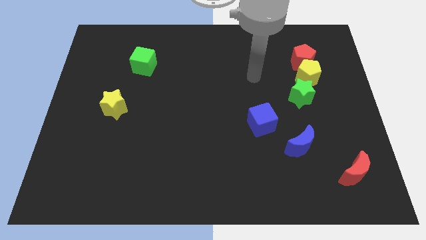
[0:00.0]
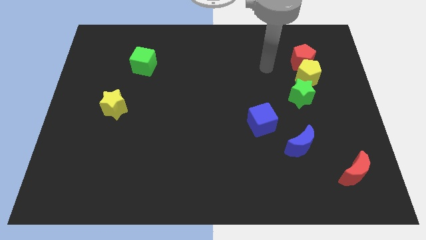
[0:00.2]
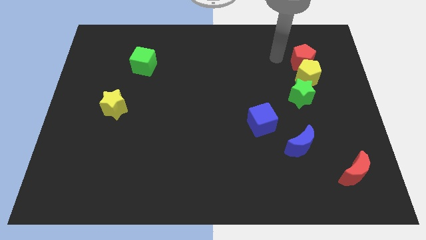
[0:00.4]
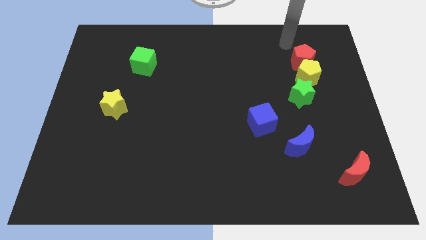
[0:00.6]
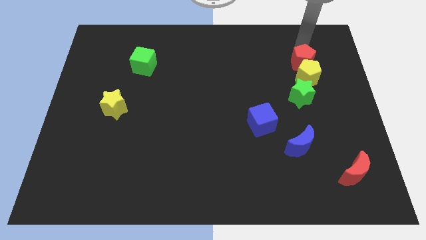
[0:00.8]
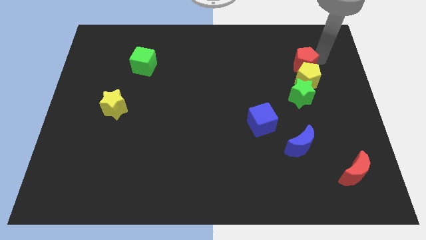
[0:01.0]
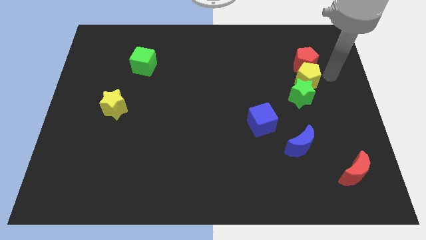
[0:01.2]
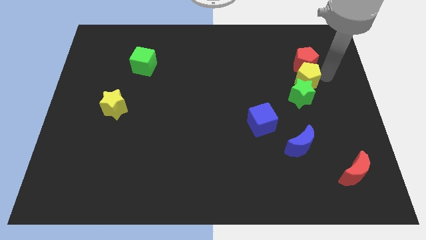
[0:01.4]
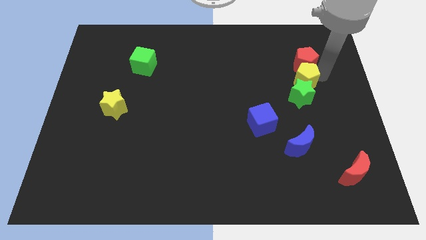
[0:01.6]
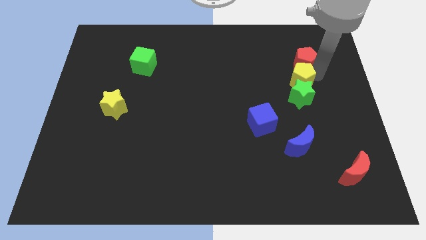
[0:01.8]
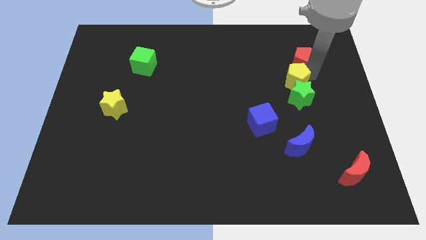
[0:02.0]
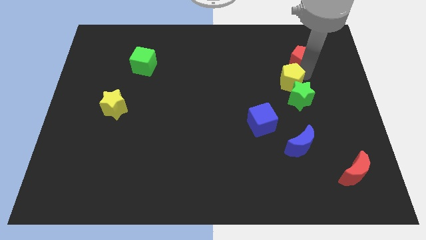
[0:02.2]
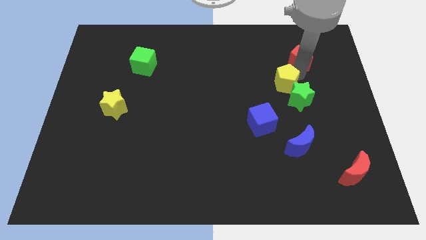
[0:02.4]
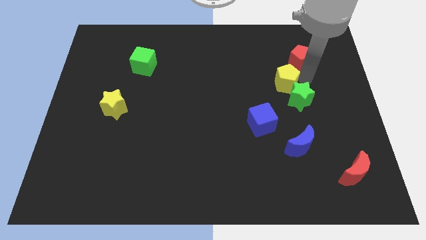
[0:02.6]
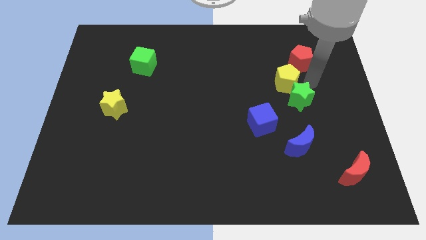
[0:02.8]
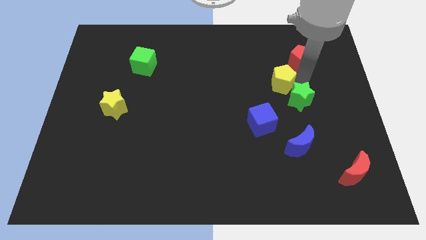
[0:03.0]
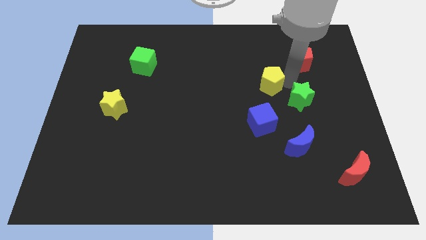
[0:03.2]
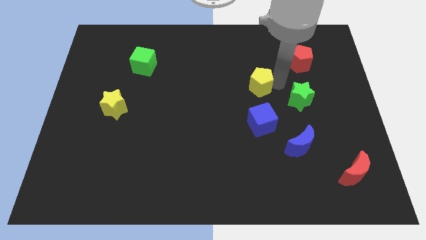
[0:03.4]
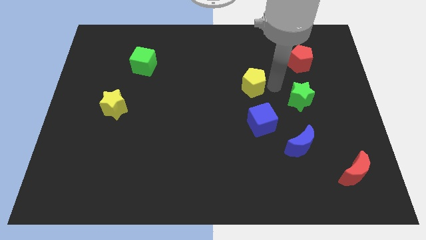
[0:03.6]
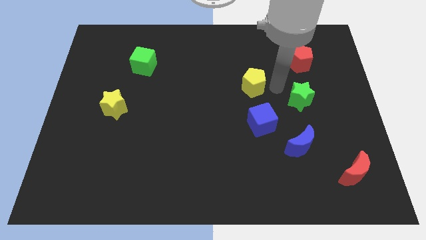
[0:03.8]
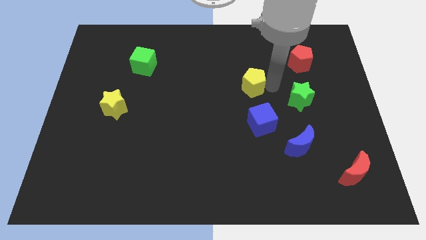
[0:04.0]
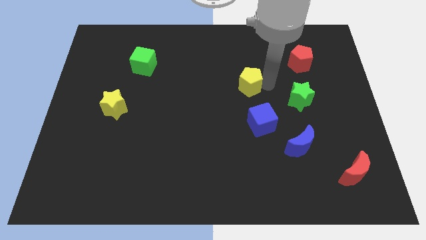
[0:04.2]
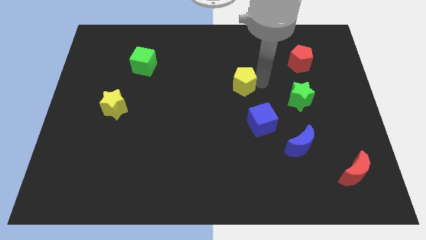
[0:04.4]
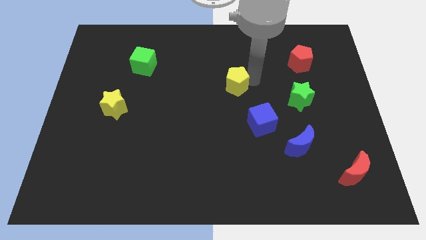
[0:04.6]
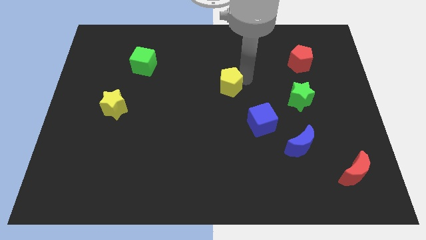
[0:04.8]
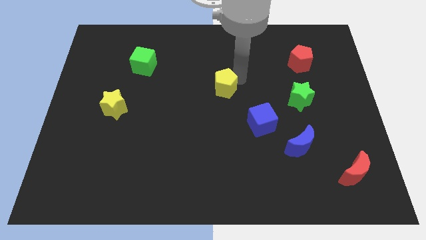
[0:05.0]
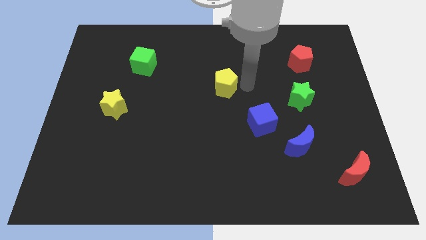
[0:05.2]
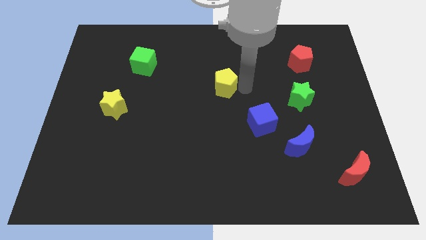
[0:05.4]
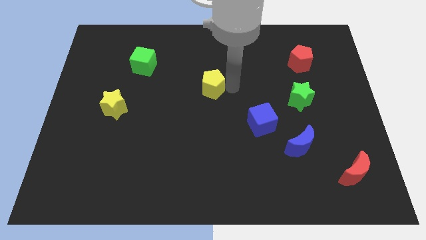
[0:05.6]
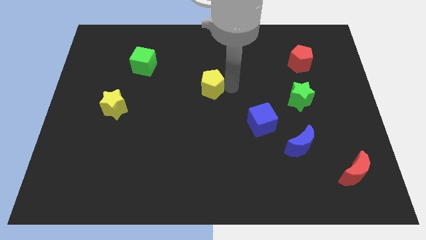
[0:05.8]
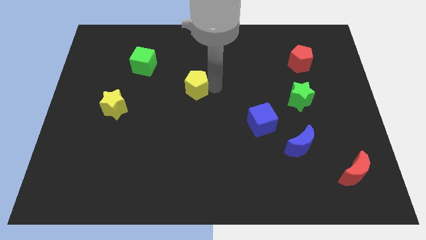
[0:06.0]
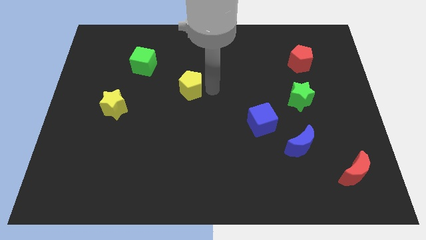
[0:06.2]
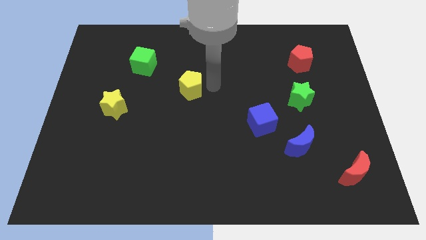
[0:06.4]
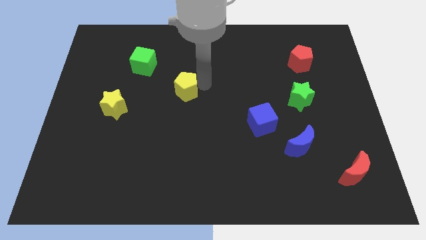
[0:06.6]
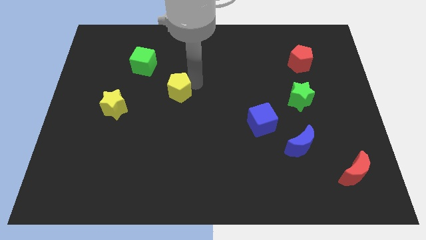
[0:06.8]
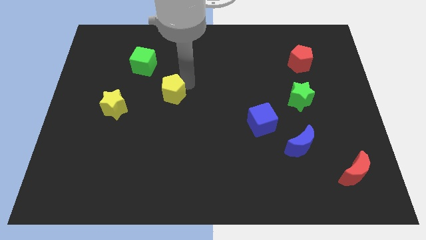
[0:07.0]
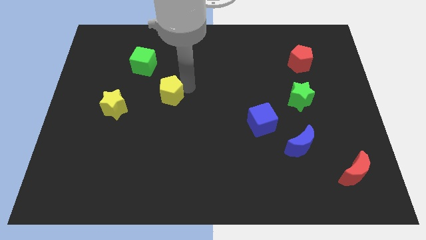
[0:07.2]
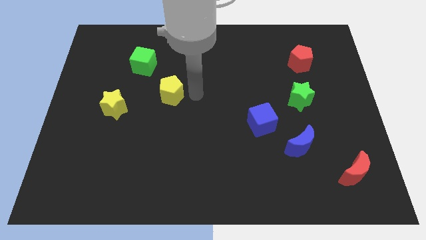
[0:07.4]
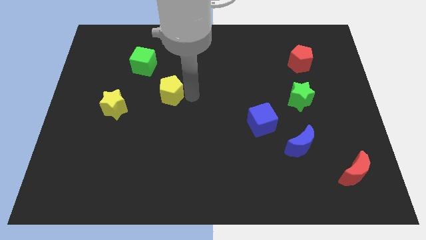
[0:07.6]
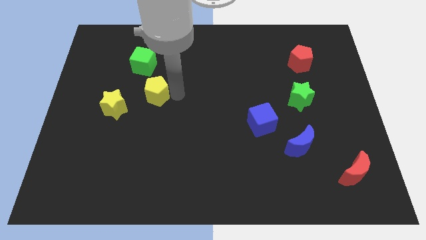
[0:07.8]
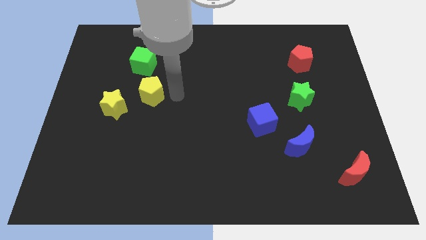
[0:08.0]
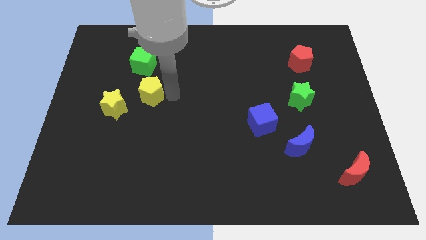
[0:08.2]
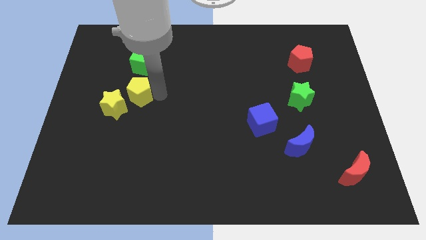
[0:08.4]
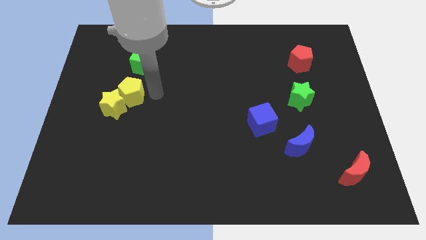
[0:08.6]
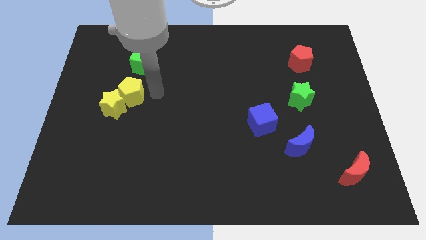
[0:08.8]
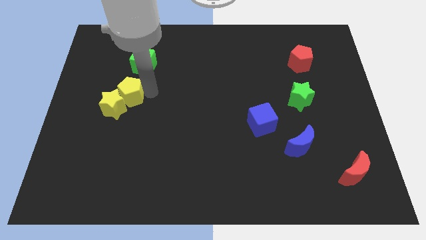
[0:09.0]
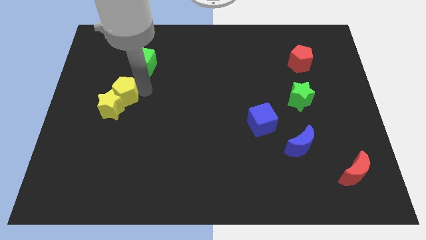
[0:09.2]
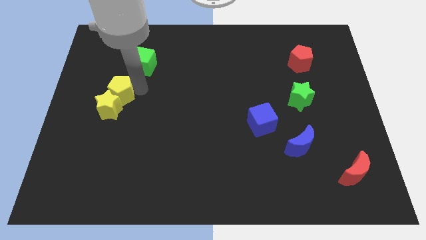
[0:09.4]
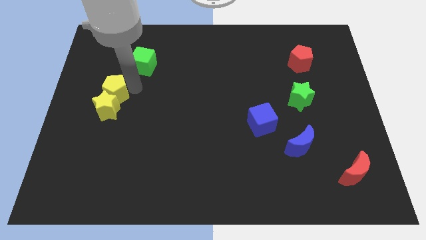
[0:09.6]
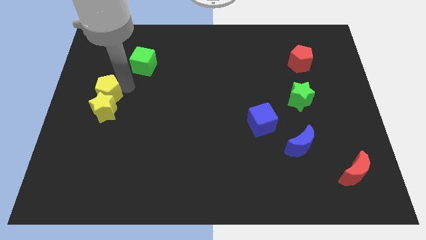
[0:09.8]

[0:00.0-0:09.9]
push the yellow pentagon to the left side

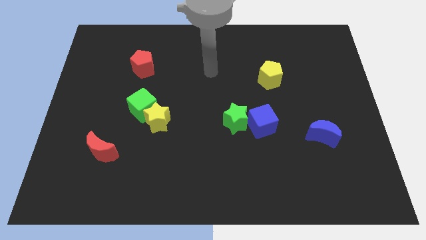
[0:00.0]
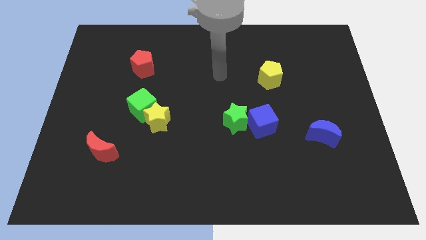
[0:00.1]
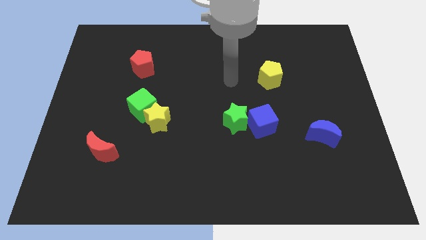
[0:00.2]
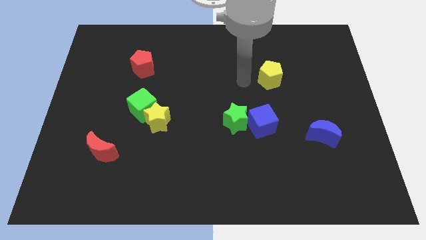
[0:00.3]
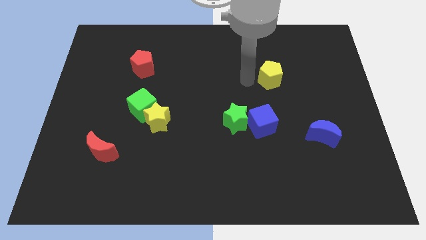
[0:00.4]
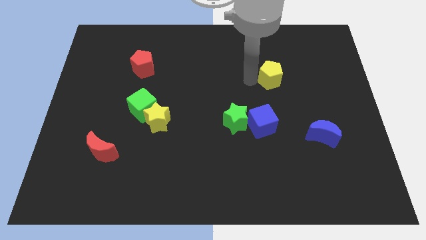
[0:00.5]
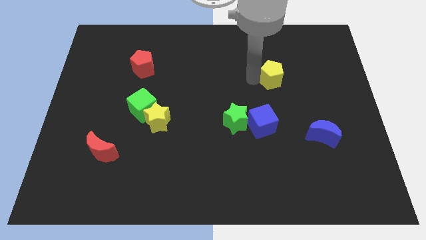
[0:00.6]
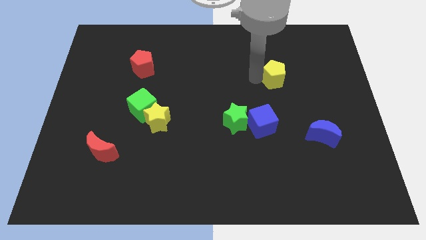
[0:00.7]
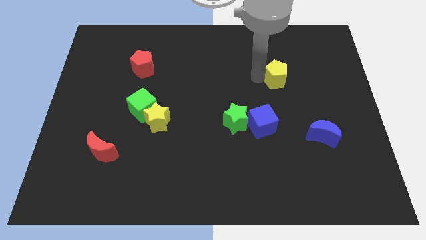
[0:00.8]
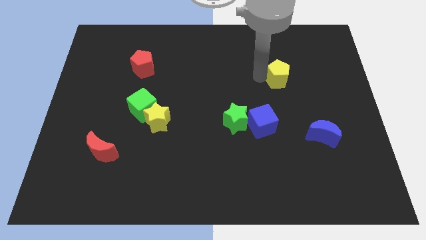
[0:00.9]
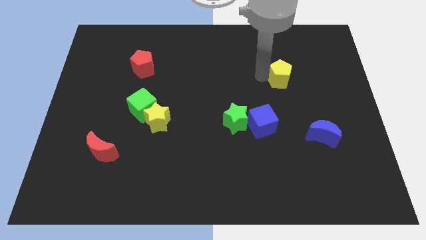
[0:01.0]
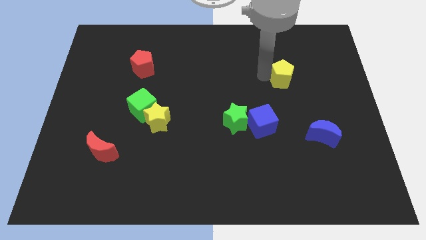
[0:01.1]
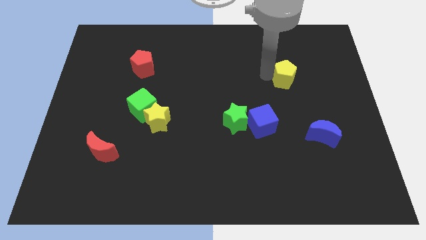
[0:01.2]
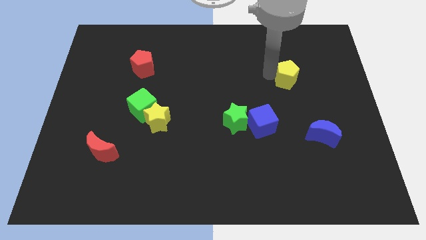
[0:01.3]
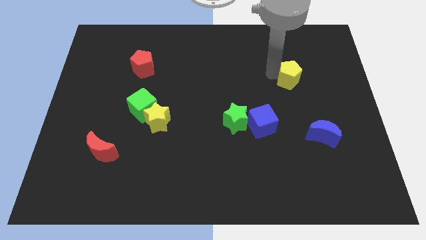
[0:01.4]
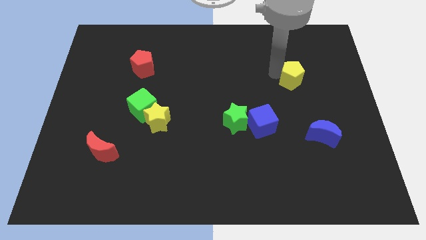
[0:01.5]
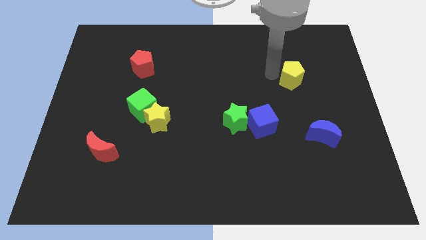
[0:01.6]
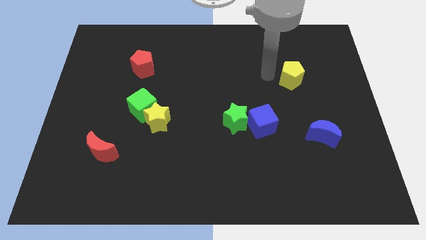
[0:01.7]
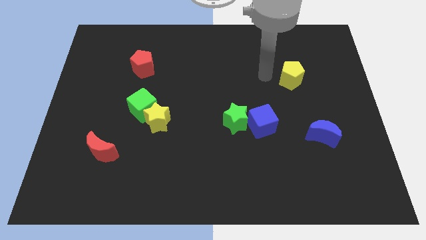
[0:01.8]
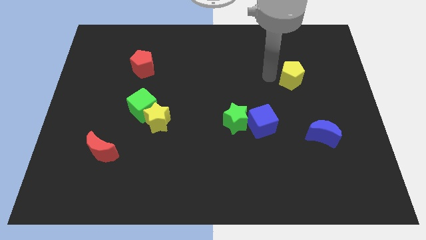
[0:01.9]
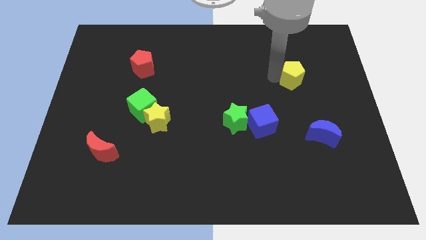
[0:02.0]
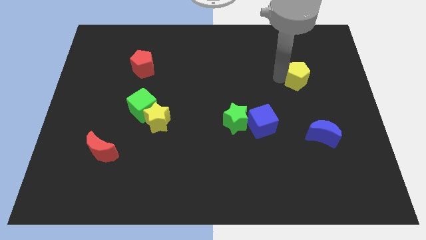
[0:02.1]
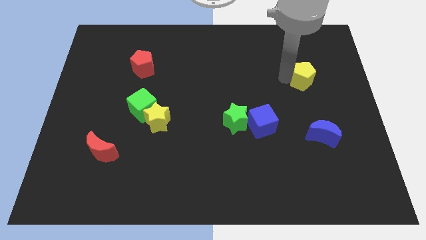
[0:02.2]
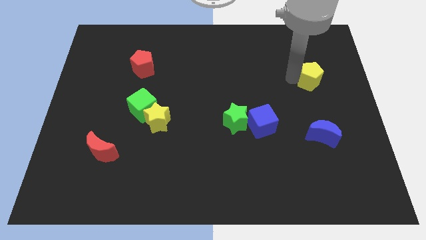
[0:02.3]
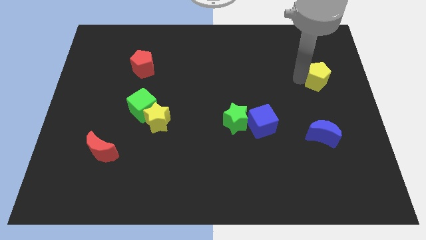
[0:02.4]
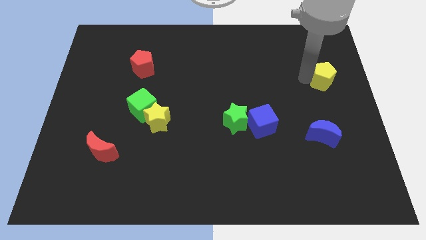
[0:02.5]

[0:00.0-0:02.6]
push the yellow pentagon to the center right
